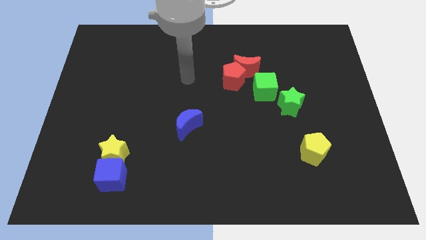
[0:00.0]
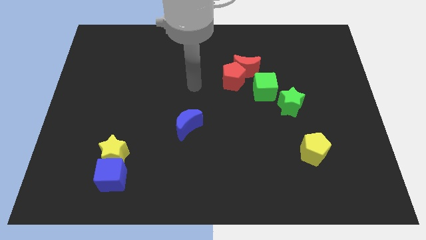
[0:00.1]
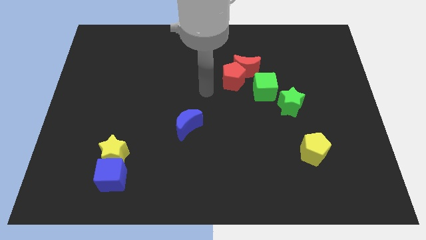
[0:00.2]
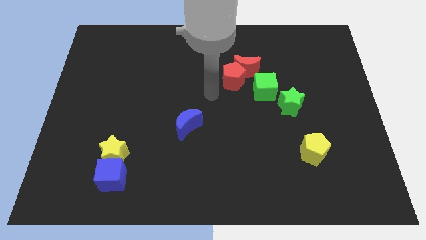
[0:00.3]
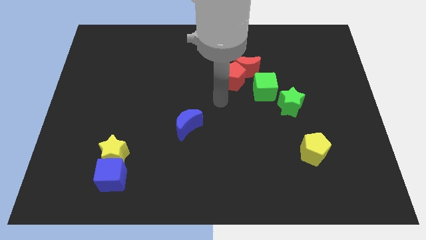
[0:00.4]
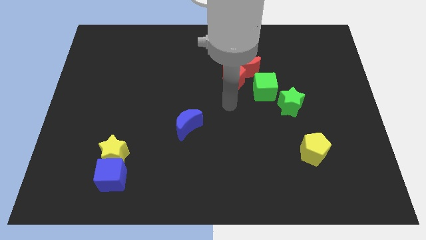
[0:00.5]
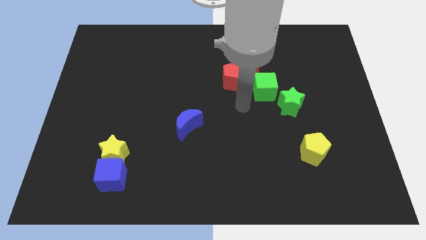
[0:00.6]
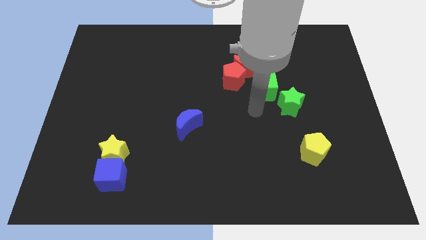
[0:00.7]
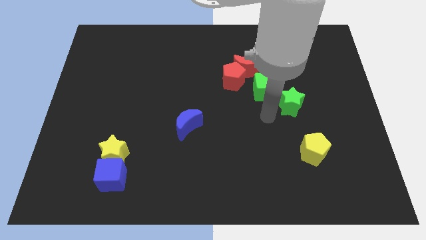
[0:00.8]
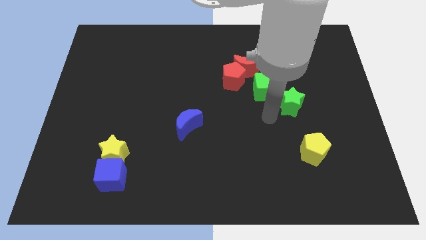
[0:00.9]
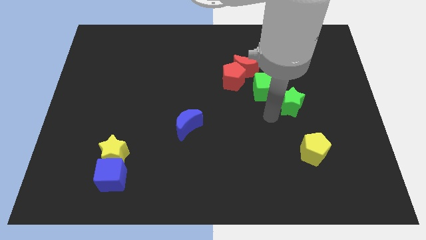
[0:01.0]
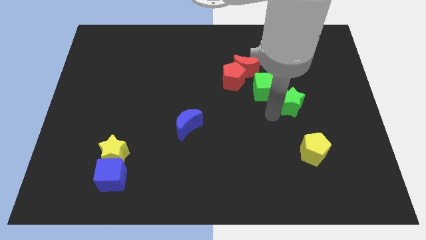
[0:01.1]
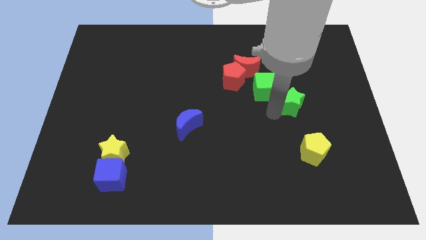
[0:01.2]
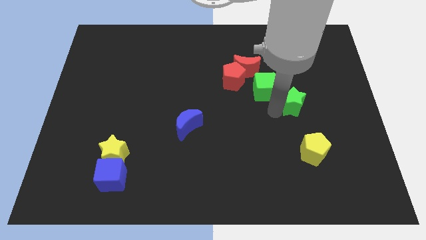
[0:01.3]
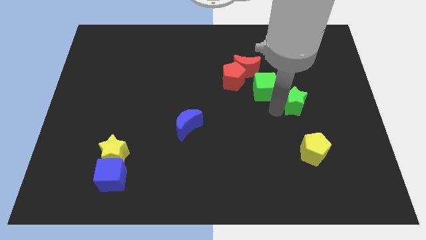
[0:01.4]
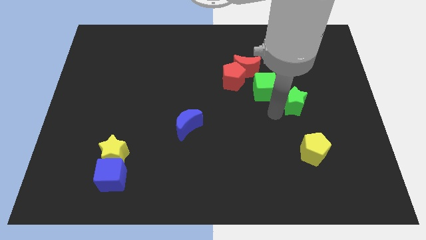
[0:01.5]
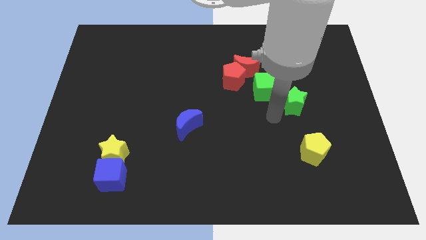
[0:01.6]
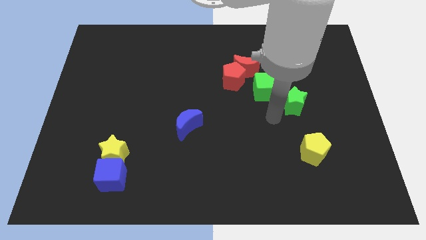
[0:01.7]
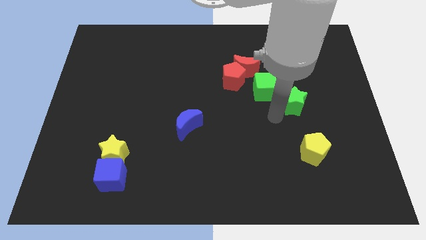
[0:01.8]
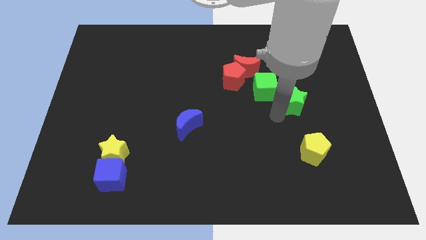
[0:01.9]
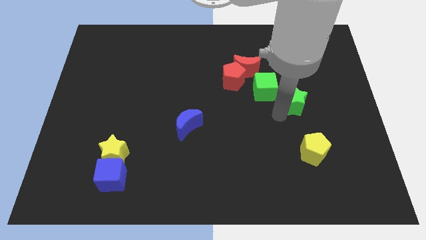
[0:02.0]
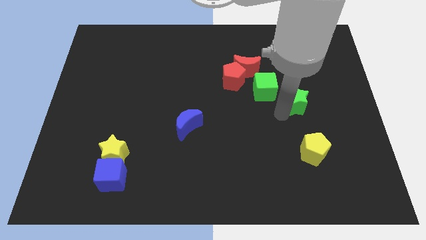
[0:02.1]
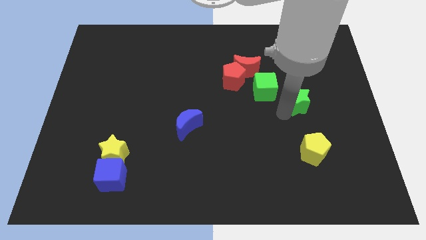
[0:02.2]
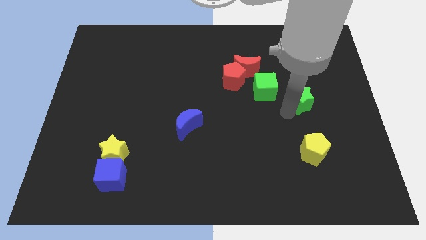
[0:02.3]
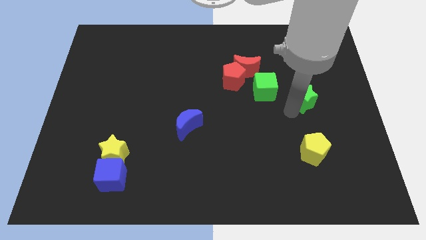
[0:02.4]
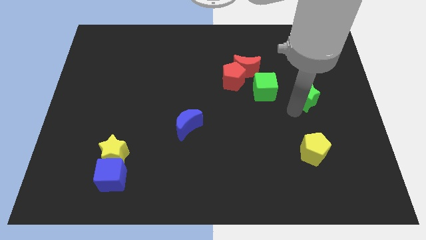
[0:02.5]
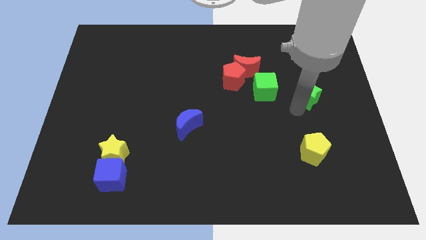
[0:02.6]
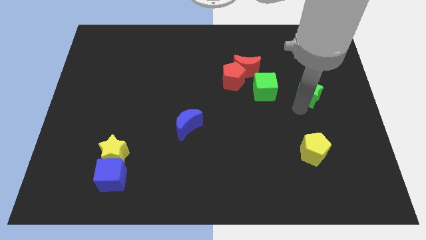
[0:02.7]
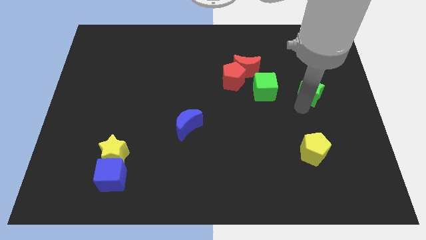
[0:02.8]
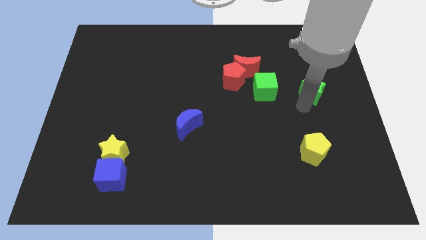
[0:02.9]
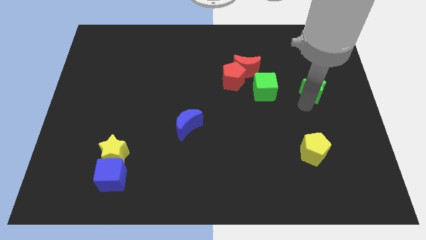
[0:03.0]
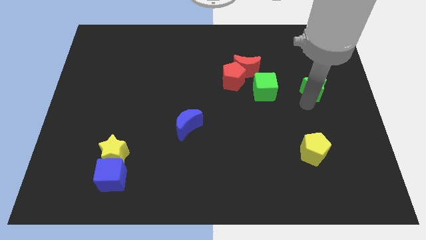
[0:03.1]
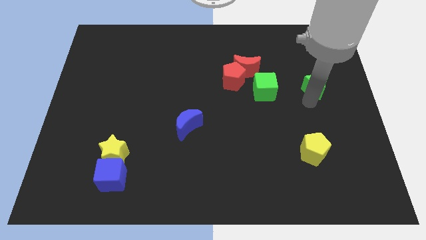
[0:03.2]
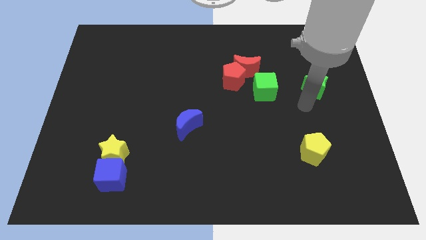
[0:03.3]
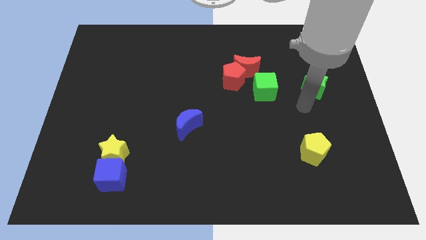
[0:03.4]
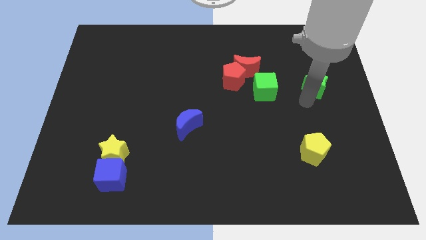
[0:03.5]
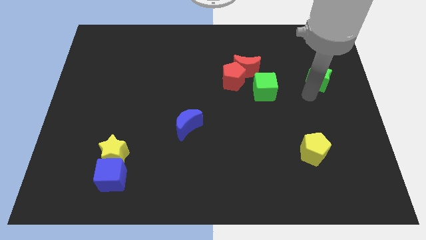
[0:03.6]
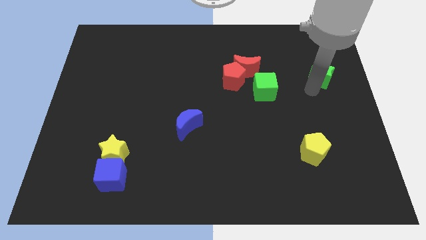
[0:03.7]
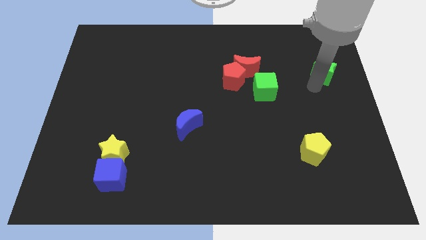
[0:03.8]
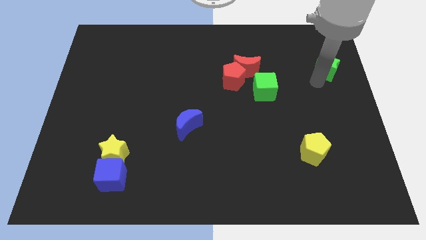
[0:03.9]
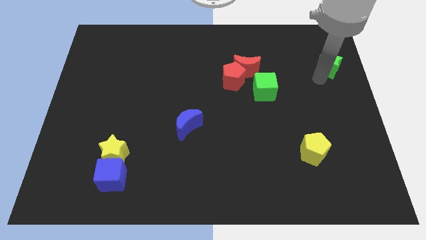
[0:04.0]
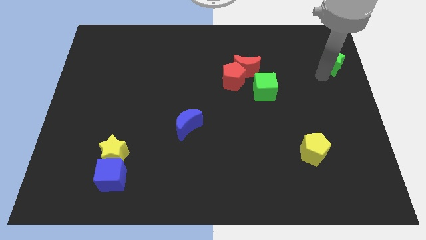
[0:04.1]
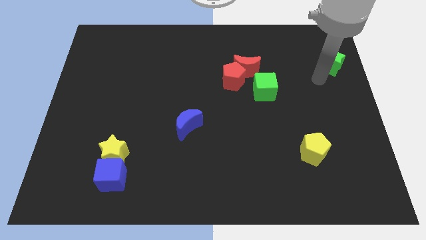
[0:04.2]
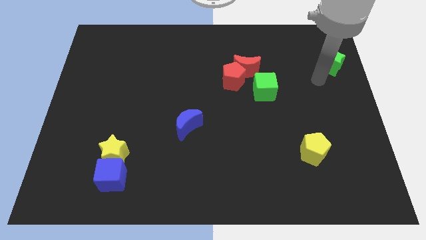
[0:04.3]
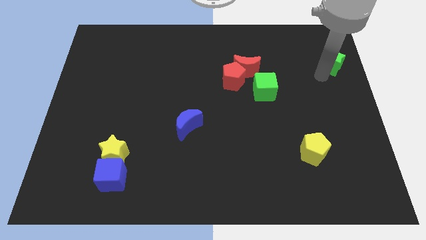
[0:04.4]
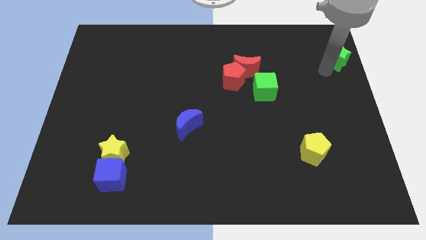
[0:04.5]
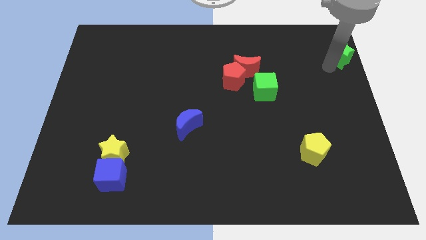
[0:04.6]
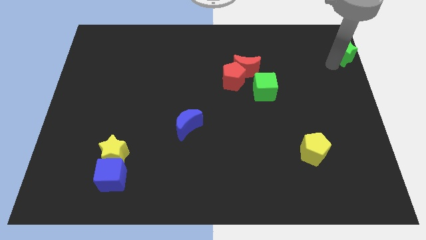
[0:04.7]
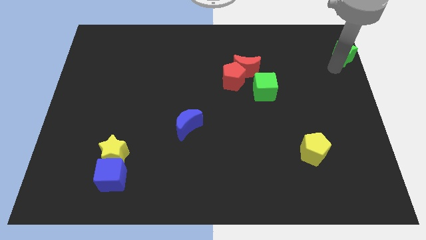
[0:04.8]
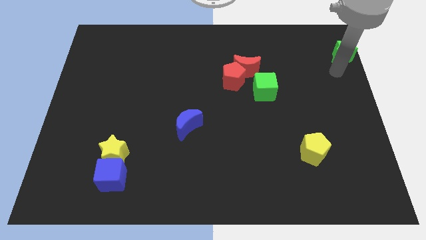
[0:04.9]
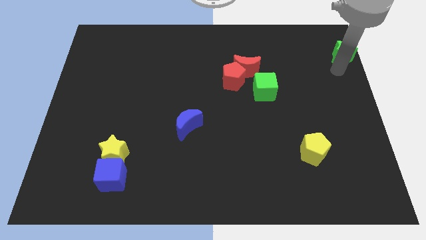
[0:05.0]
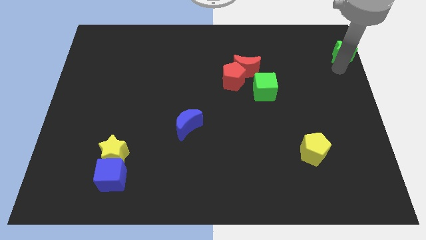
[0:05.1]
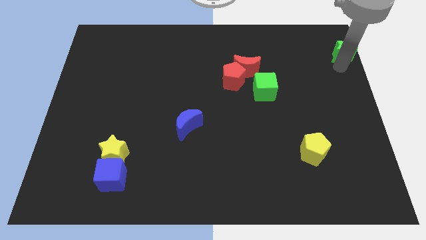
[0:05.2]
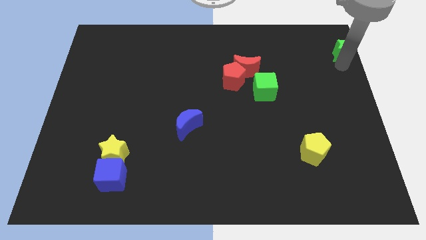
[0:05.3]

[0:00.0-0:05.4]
slide the green star to the top right of the board

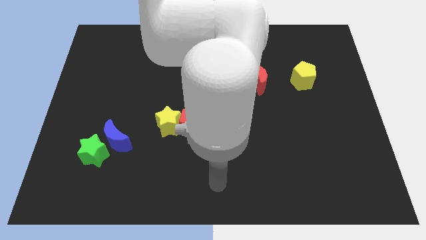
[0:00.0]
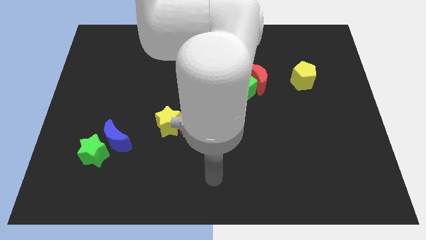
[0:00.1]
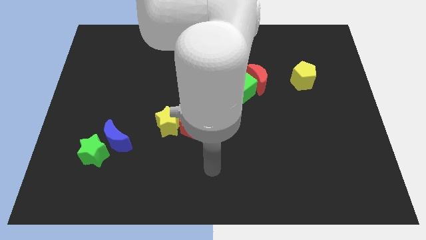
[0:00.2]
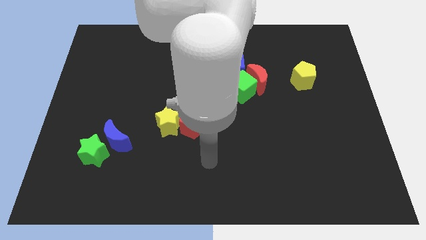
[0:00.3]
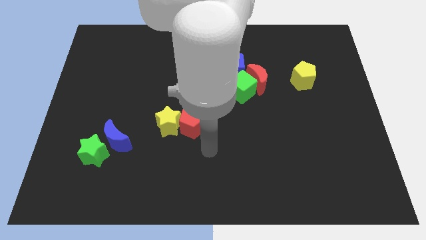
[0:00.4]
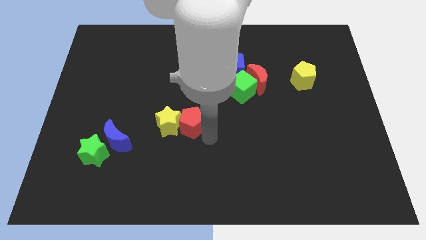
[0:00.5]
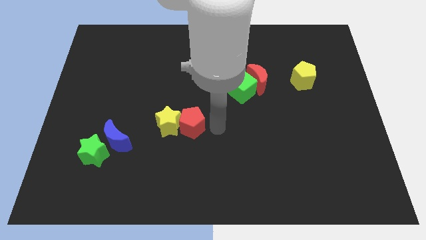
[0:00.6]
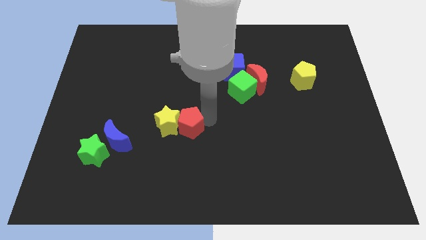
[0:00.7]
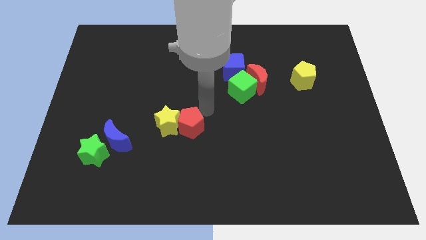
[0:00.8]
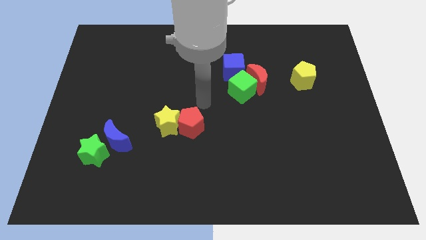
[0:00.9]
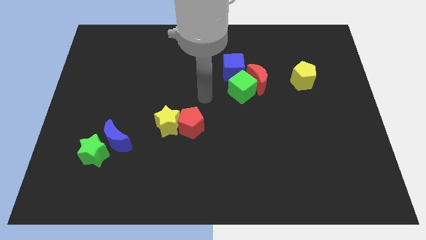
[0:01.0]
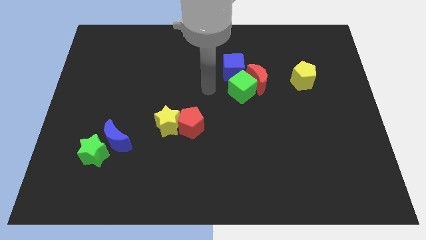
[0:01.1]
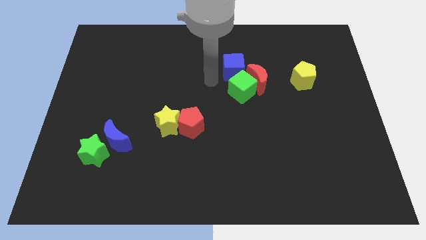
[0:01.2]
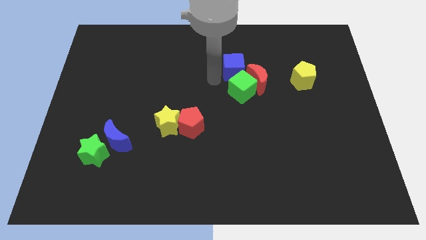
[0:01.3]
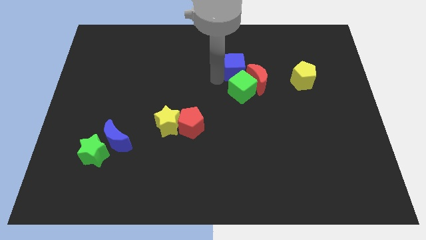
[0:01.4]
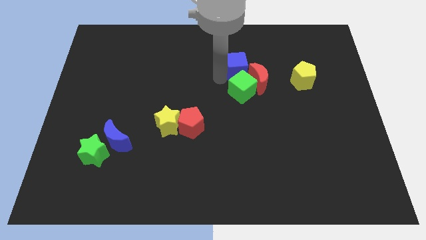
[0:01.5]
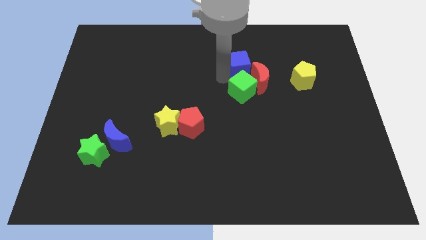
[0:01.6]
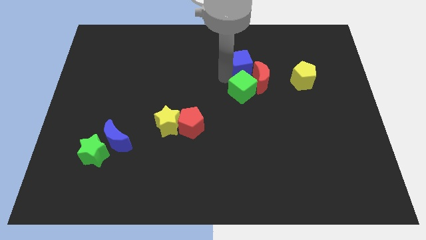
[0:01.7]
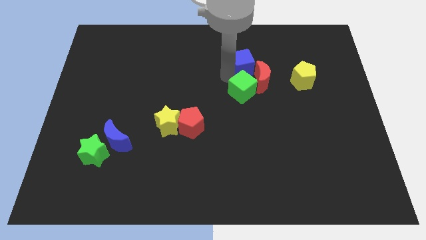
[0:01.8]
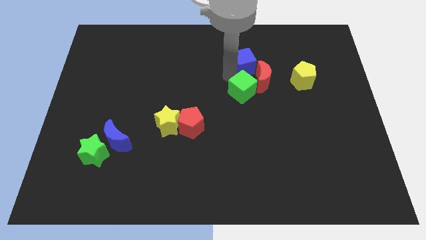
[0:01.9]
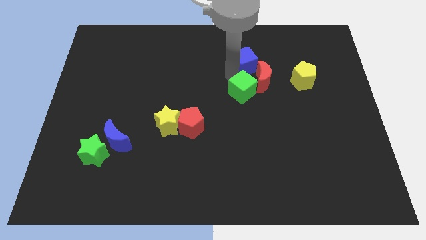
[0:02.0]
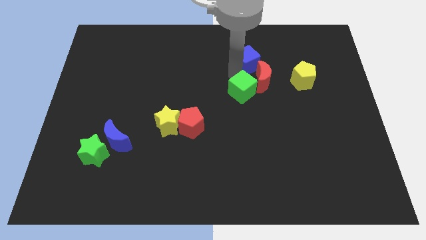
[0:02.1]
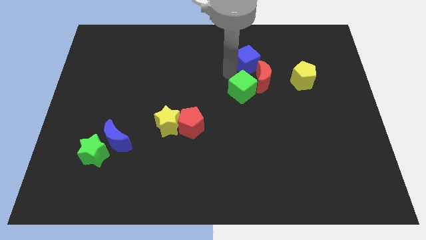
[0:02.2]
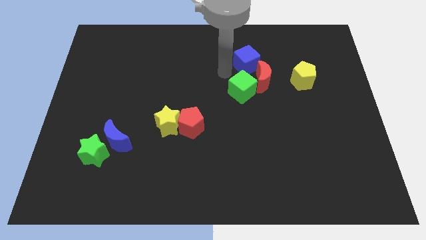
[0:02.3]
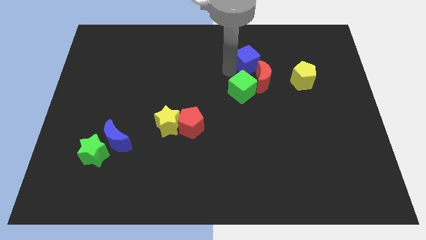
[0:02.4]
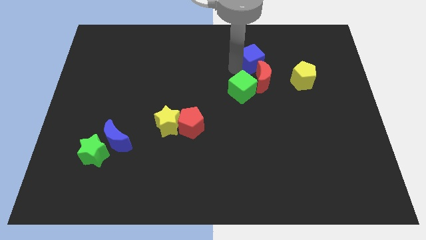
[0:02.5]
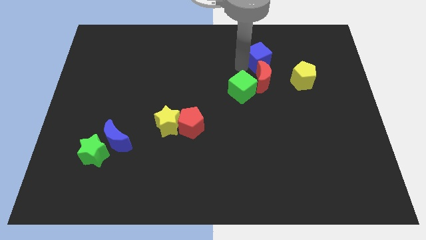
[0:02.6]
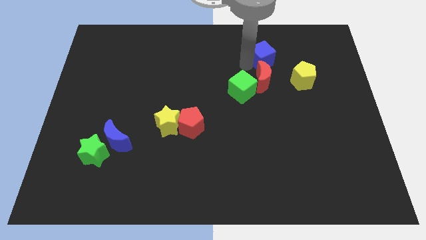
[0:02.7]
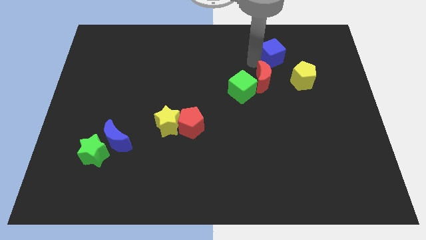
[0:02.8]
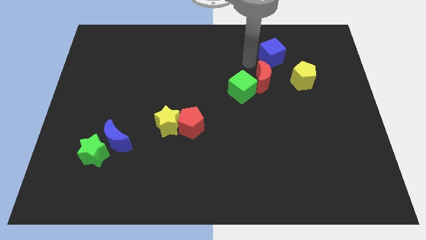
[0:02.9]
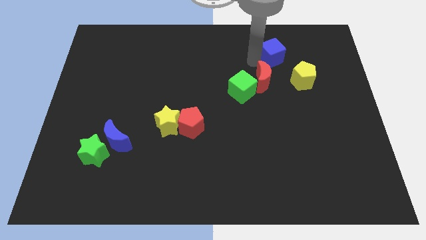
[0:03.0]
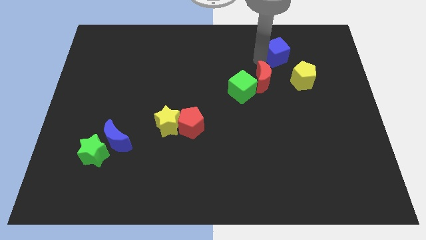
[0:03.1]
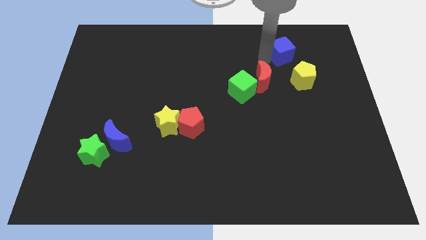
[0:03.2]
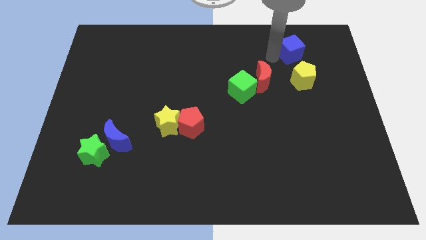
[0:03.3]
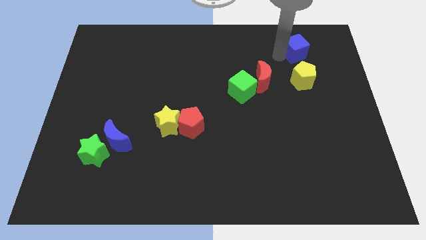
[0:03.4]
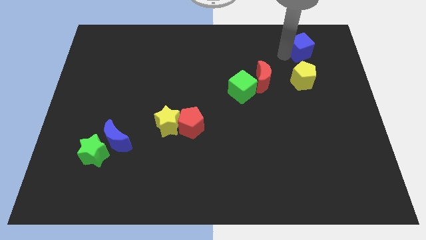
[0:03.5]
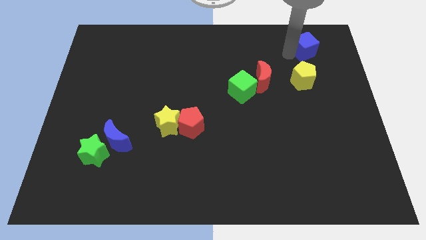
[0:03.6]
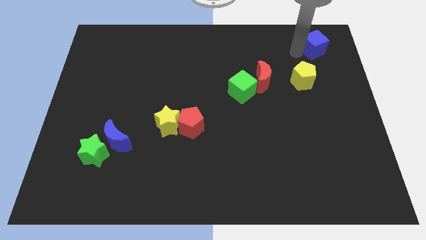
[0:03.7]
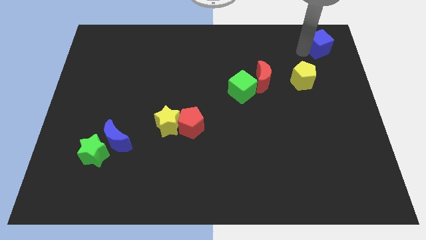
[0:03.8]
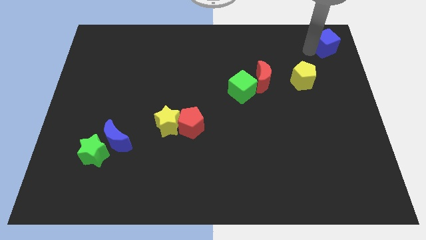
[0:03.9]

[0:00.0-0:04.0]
push the blue cube to the top right corner
